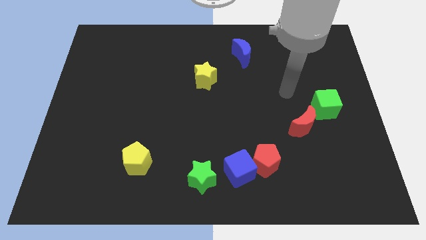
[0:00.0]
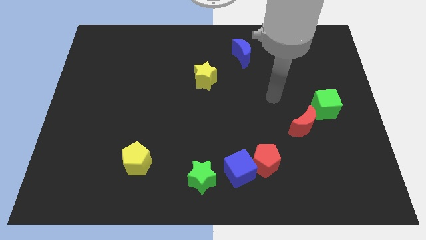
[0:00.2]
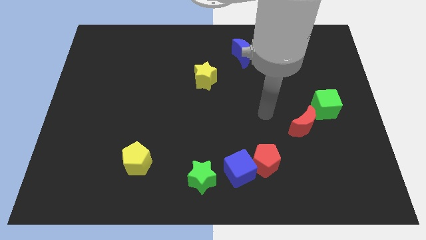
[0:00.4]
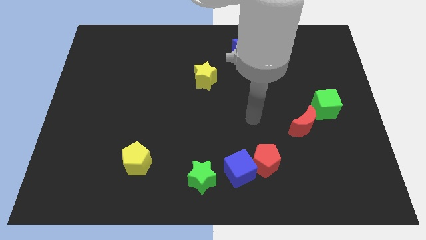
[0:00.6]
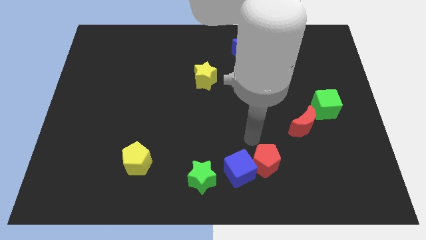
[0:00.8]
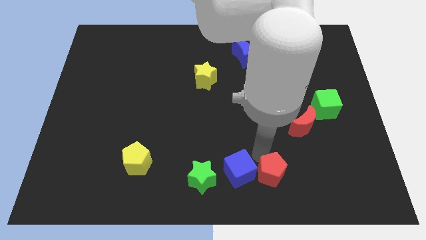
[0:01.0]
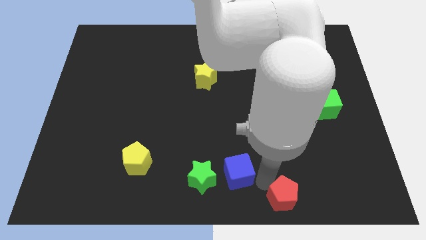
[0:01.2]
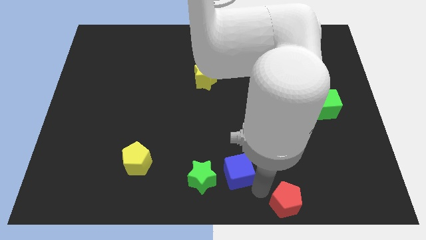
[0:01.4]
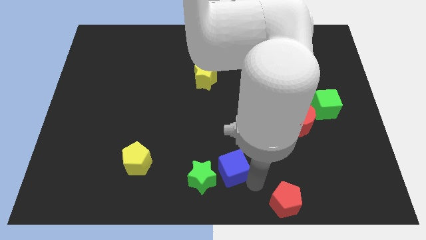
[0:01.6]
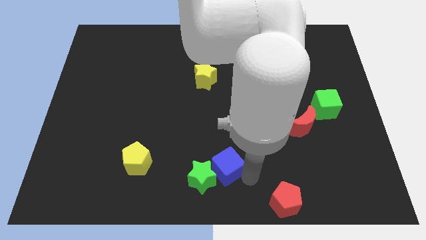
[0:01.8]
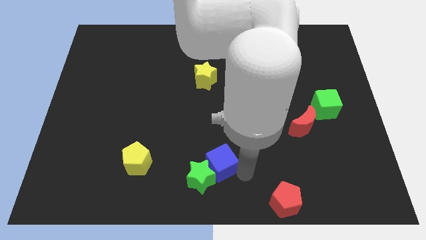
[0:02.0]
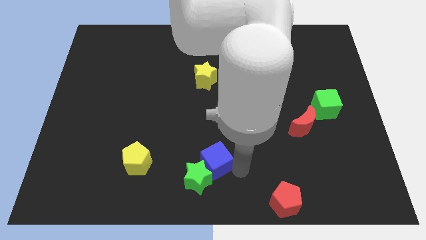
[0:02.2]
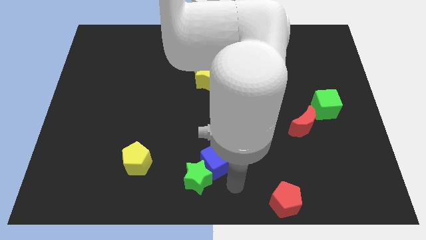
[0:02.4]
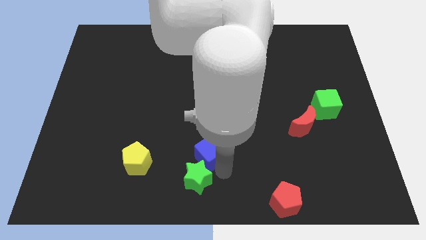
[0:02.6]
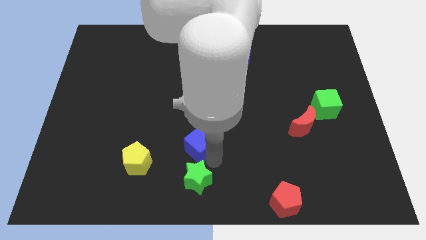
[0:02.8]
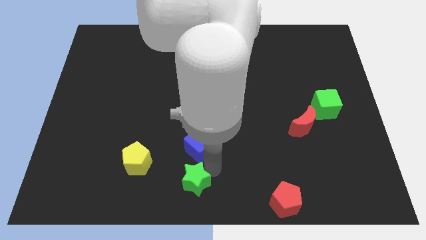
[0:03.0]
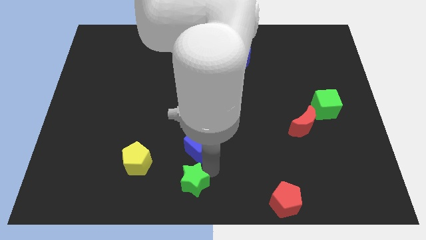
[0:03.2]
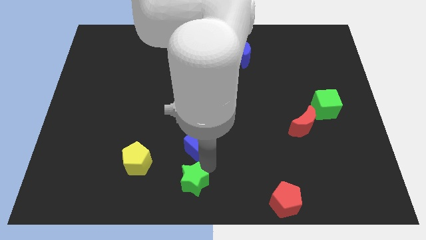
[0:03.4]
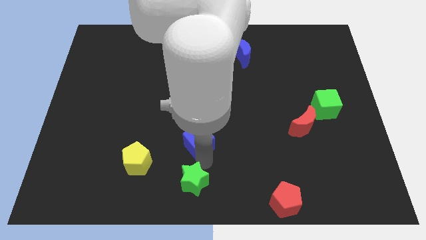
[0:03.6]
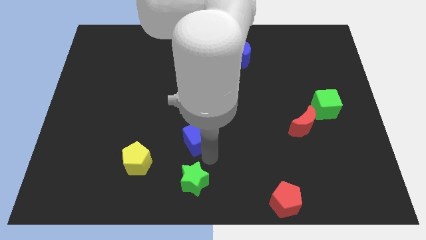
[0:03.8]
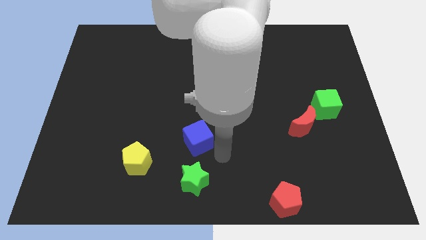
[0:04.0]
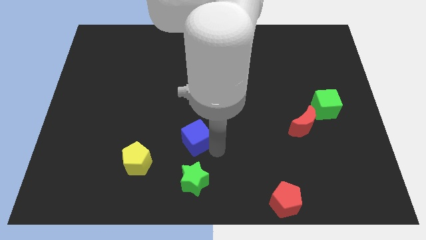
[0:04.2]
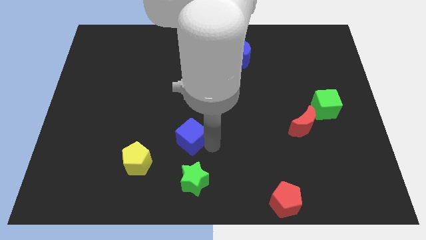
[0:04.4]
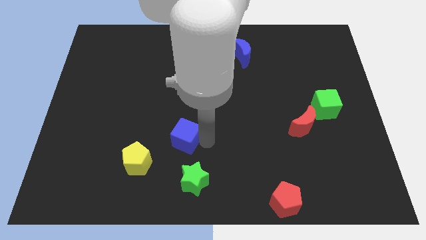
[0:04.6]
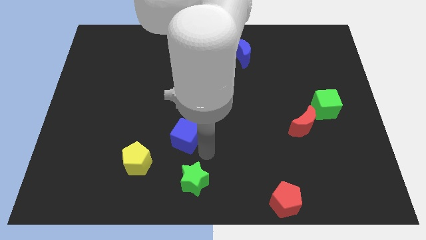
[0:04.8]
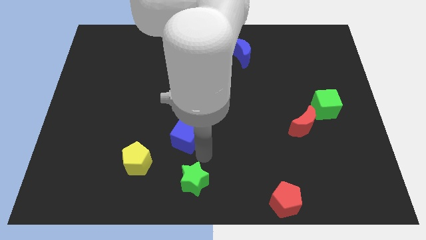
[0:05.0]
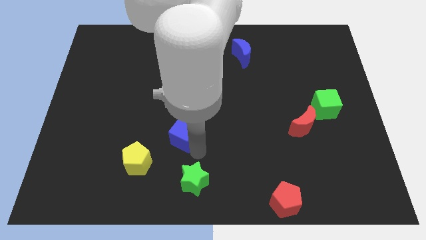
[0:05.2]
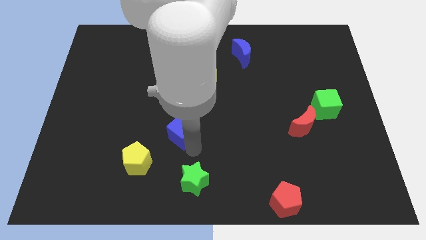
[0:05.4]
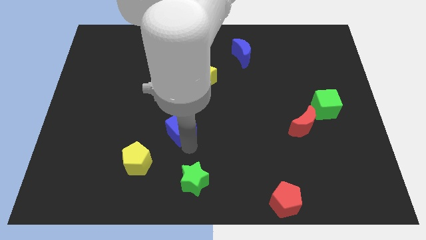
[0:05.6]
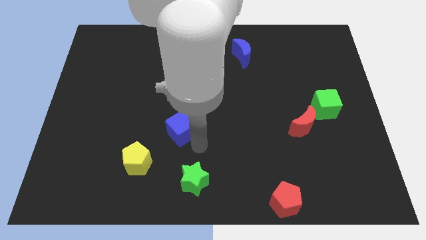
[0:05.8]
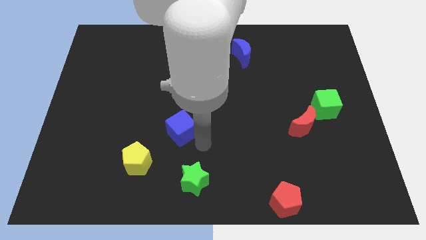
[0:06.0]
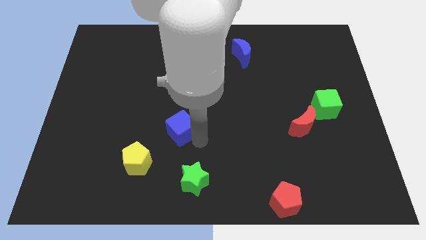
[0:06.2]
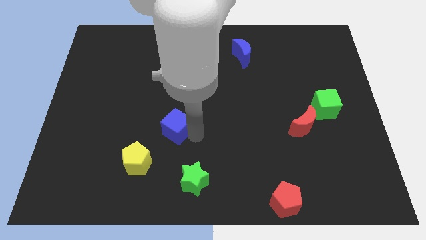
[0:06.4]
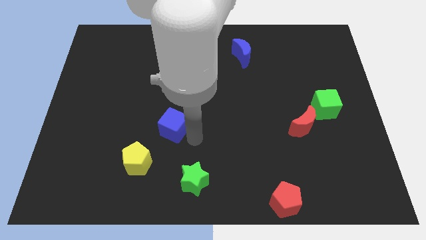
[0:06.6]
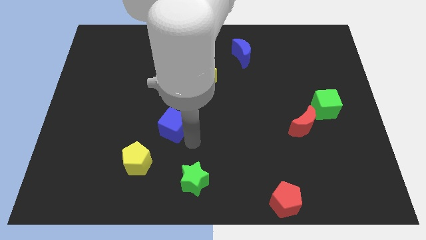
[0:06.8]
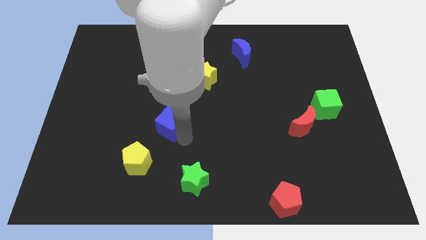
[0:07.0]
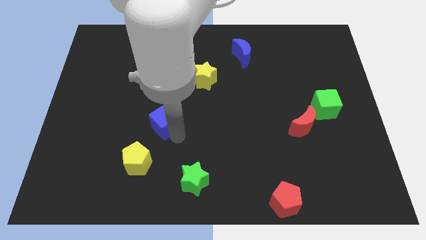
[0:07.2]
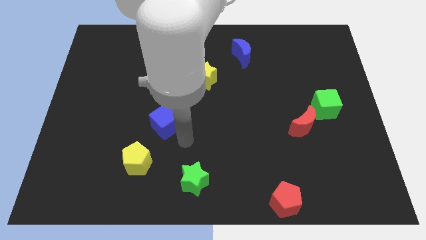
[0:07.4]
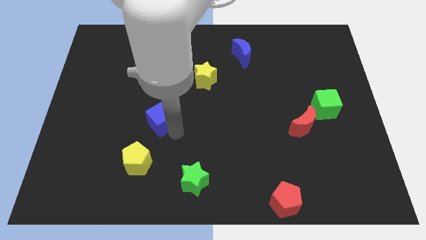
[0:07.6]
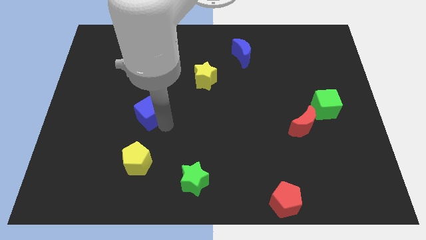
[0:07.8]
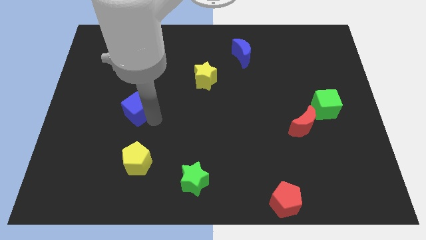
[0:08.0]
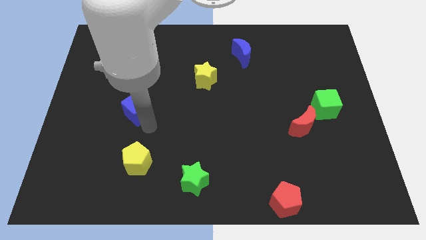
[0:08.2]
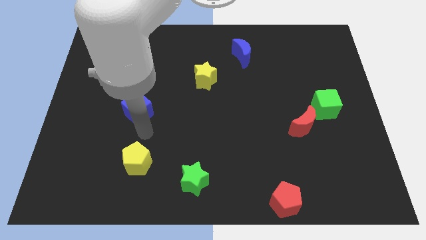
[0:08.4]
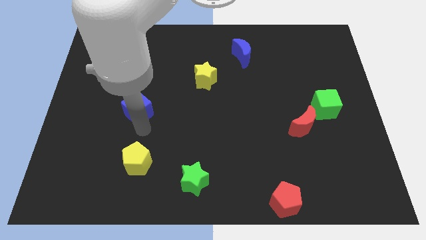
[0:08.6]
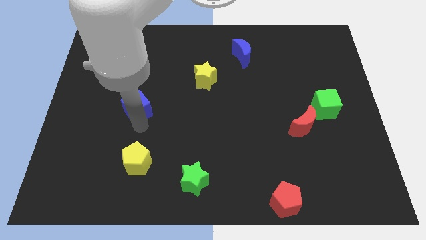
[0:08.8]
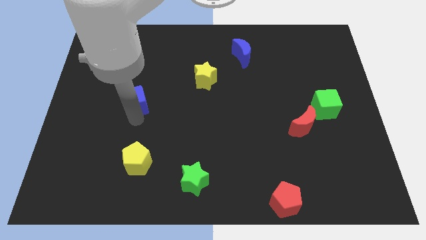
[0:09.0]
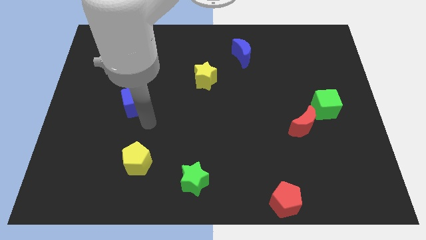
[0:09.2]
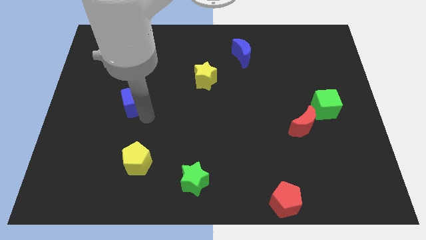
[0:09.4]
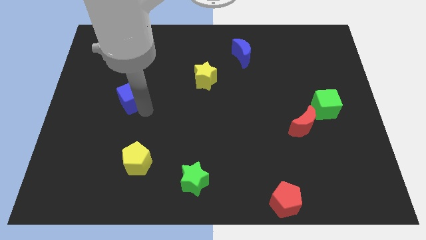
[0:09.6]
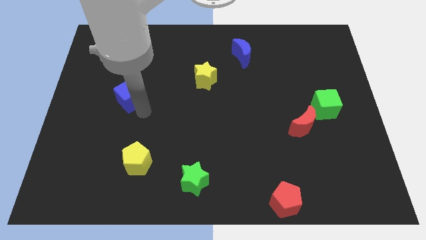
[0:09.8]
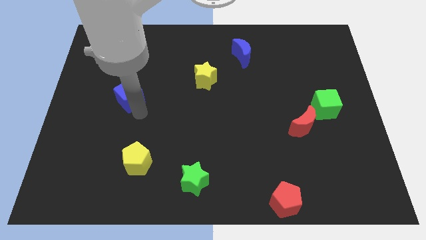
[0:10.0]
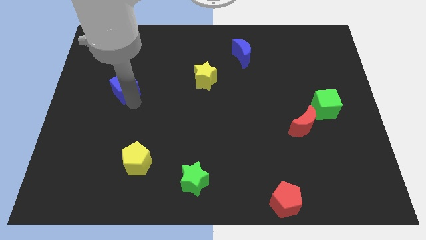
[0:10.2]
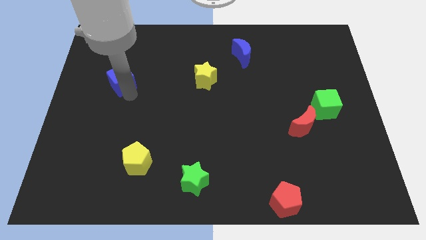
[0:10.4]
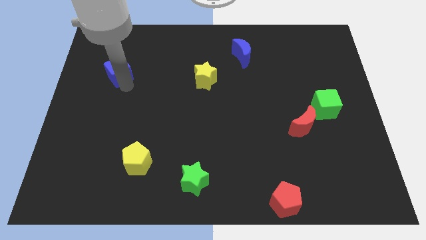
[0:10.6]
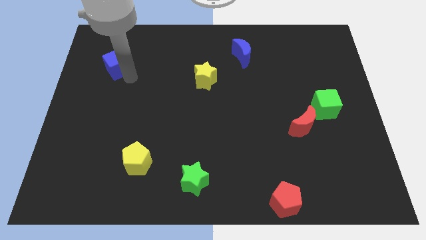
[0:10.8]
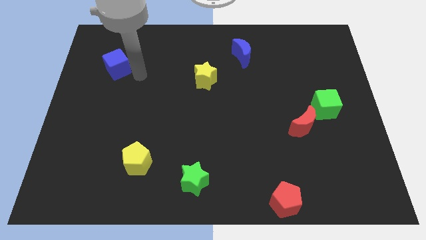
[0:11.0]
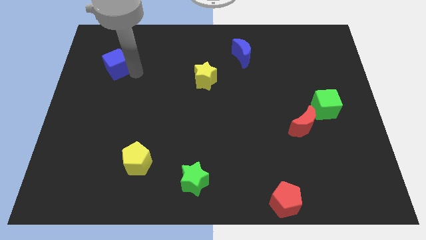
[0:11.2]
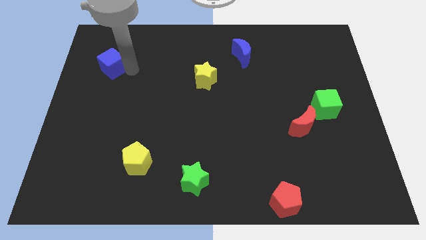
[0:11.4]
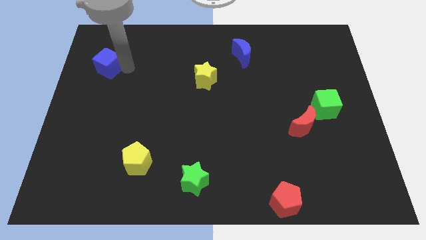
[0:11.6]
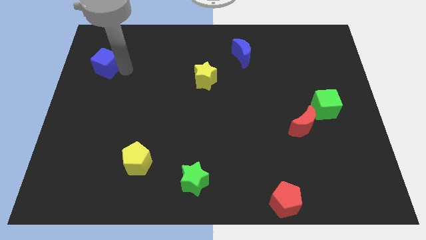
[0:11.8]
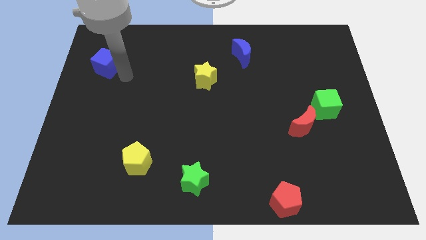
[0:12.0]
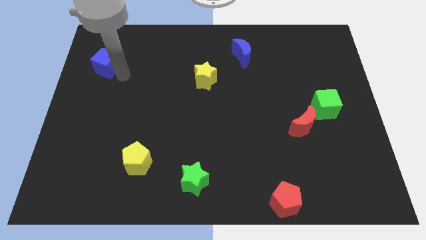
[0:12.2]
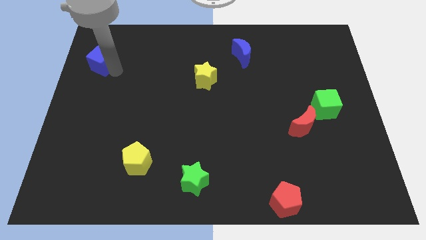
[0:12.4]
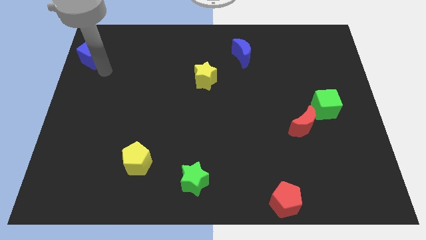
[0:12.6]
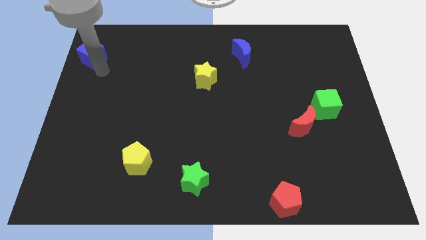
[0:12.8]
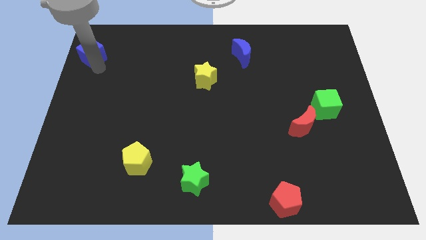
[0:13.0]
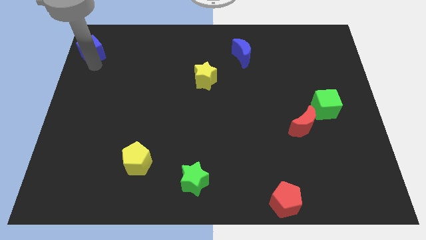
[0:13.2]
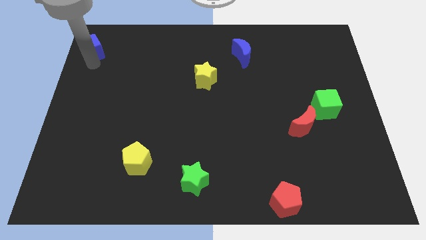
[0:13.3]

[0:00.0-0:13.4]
push the blue cube to the top left of the board

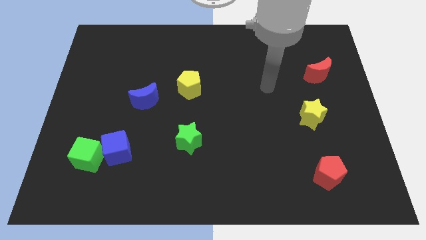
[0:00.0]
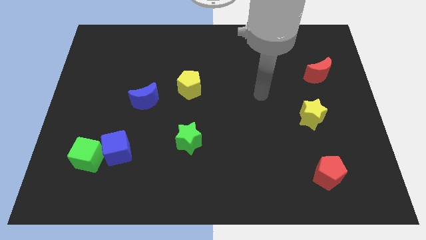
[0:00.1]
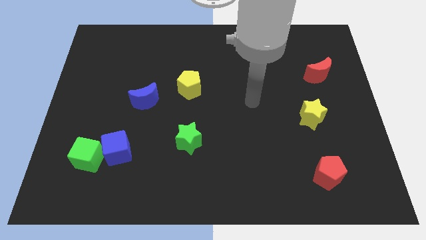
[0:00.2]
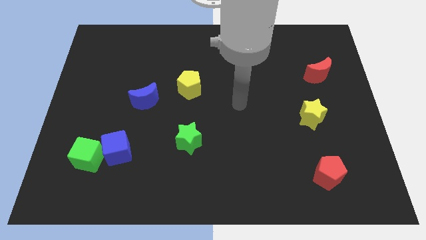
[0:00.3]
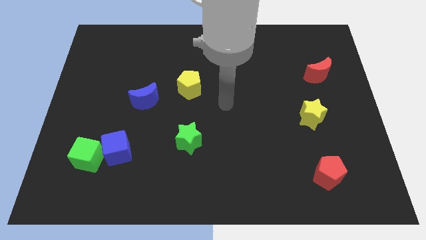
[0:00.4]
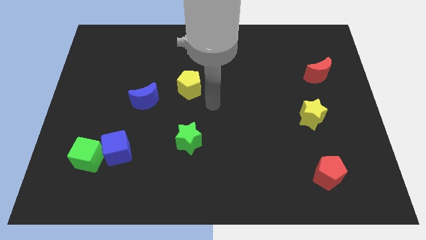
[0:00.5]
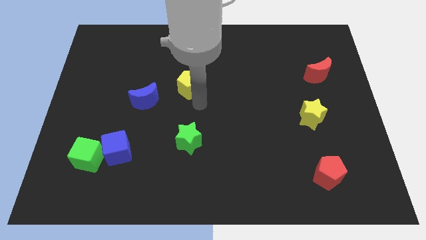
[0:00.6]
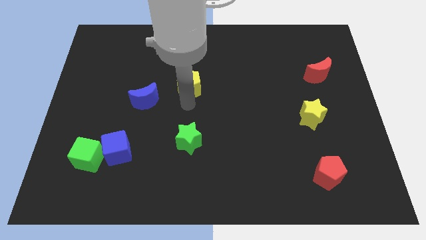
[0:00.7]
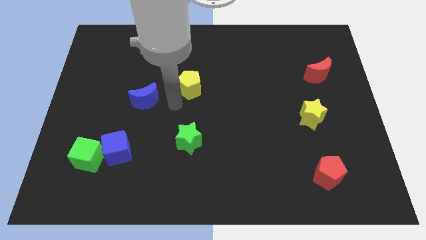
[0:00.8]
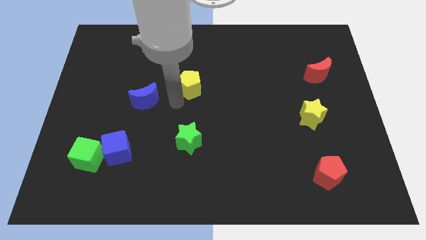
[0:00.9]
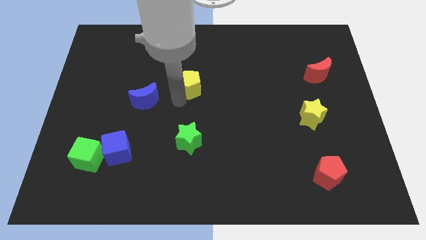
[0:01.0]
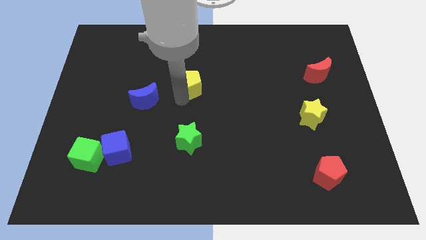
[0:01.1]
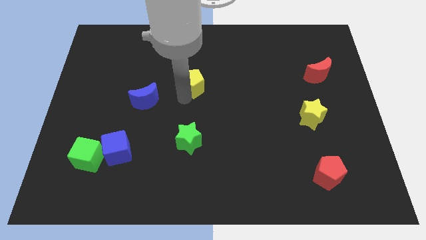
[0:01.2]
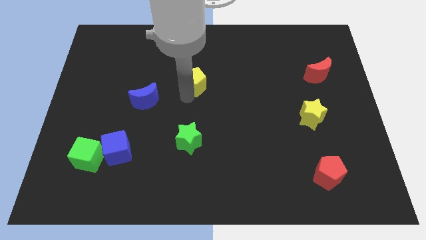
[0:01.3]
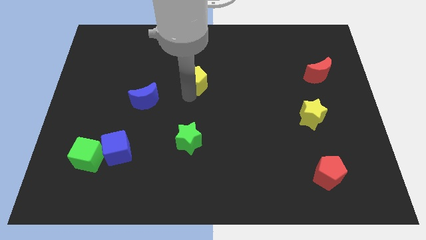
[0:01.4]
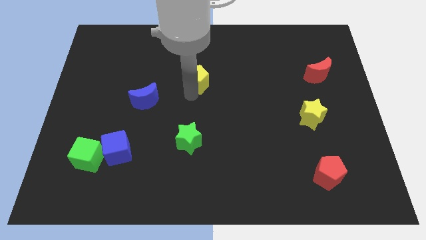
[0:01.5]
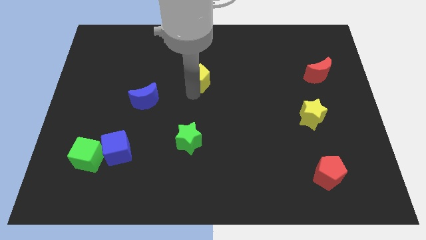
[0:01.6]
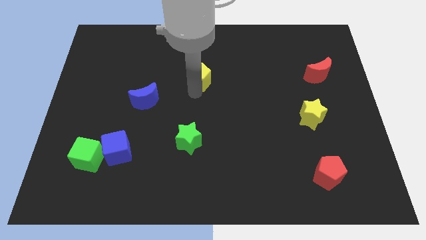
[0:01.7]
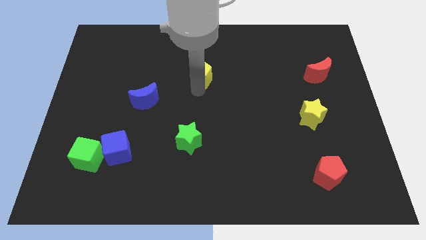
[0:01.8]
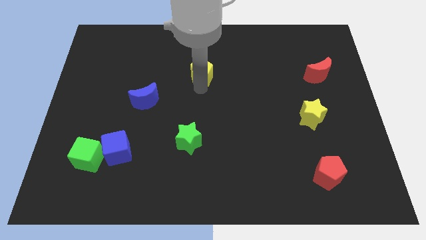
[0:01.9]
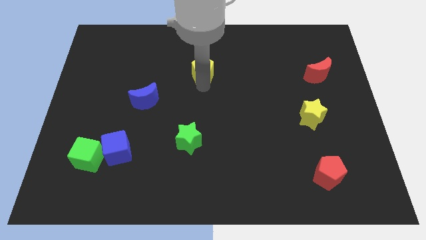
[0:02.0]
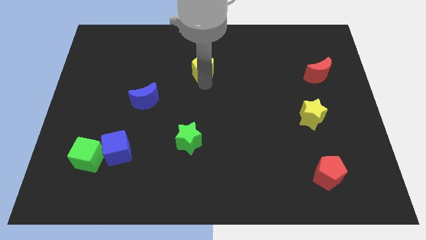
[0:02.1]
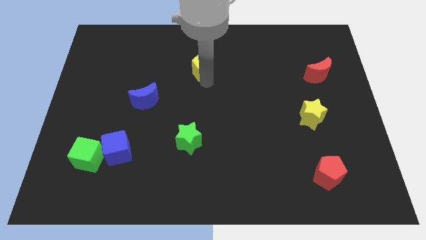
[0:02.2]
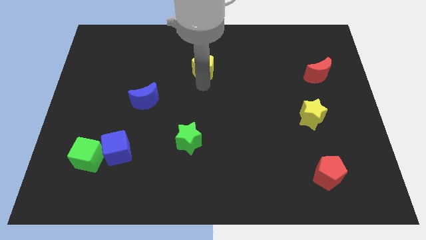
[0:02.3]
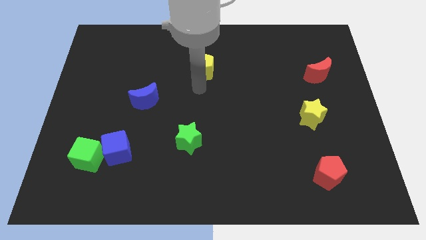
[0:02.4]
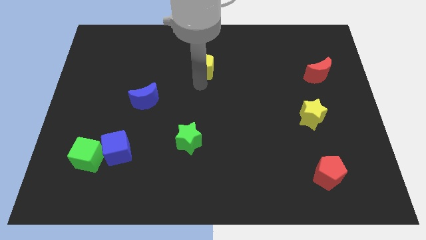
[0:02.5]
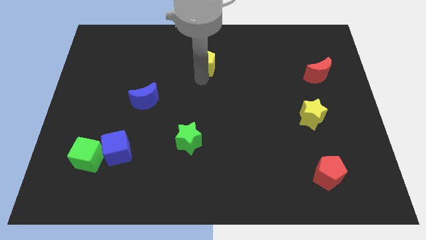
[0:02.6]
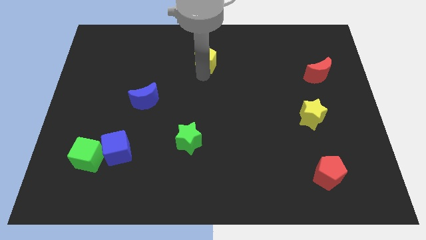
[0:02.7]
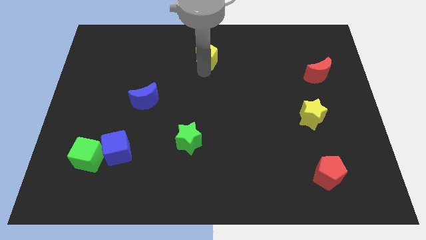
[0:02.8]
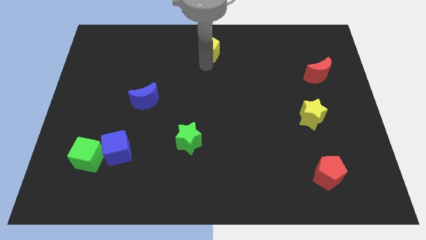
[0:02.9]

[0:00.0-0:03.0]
move the yellow pentagon to the top side
